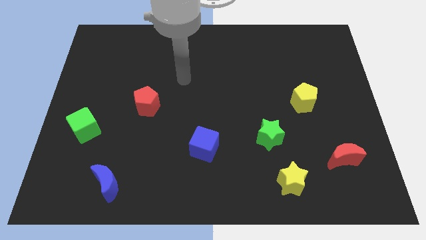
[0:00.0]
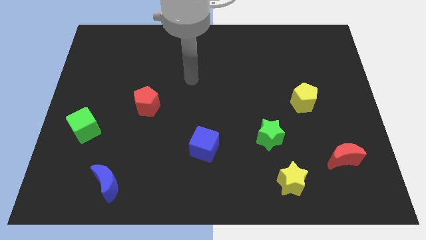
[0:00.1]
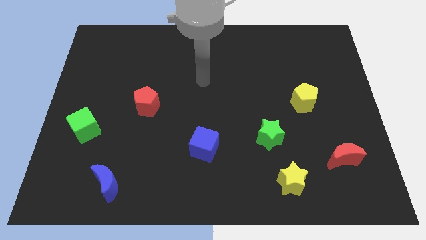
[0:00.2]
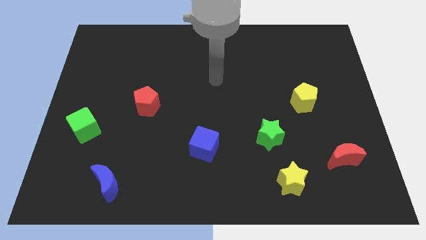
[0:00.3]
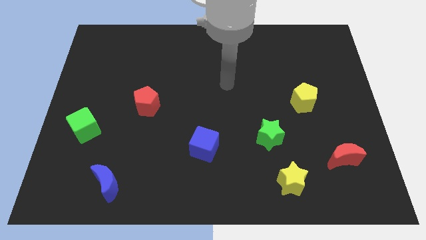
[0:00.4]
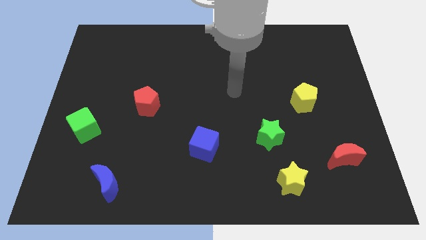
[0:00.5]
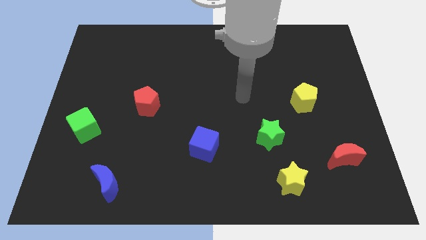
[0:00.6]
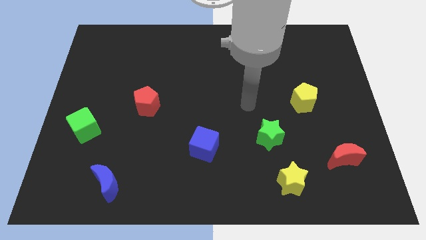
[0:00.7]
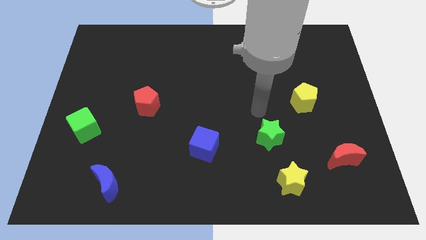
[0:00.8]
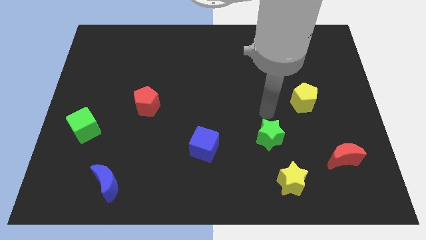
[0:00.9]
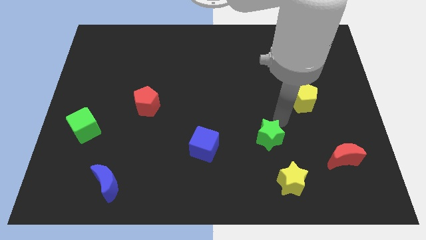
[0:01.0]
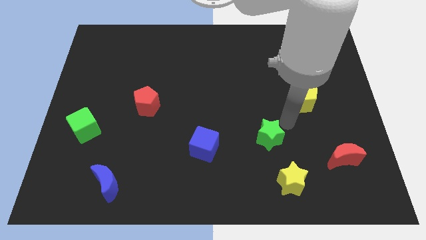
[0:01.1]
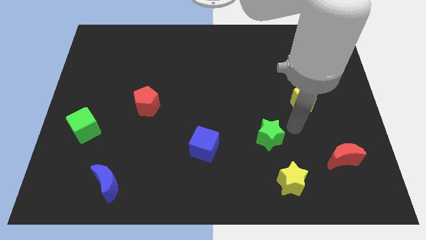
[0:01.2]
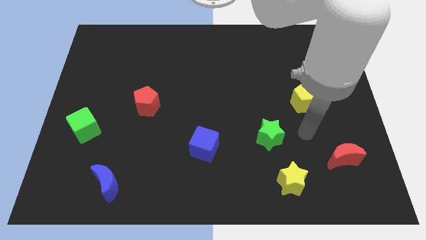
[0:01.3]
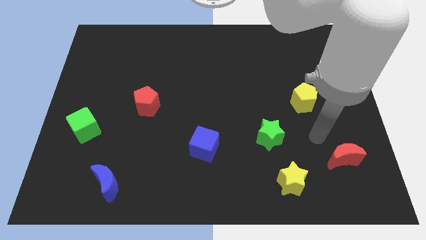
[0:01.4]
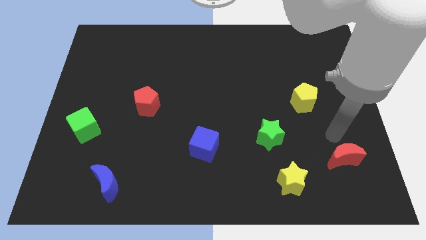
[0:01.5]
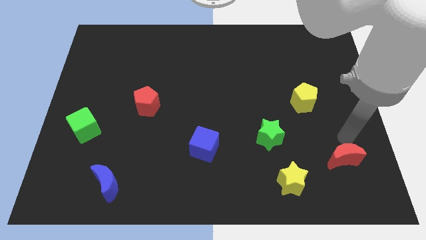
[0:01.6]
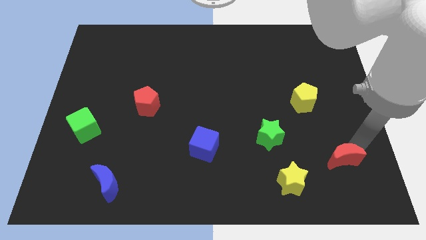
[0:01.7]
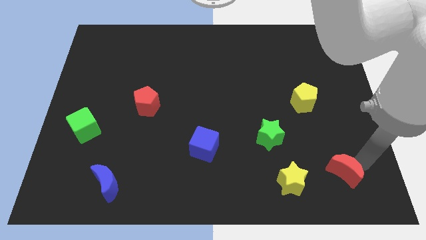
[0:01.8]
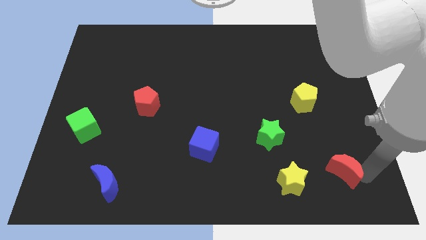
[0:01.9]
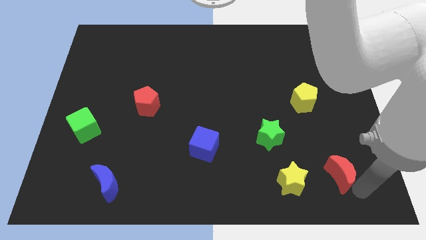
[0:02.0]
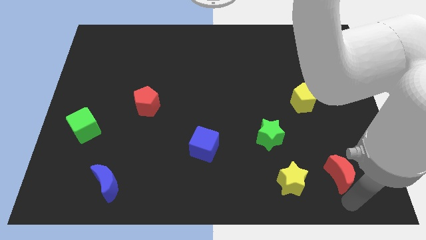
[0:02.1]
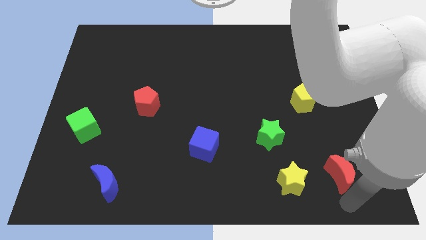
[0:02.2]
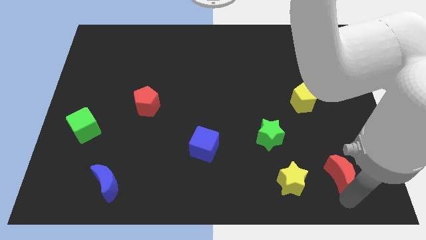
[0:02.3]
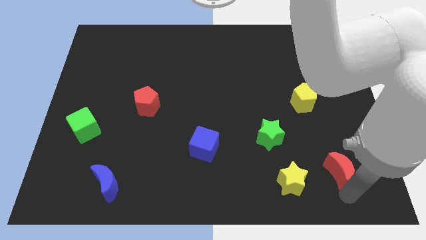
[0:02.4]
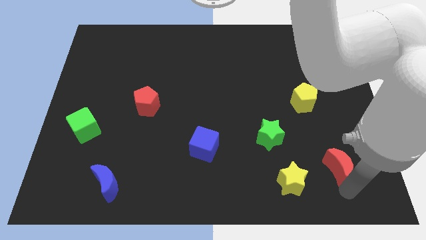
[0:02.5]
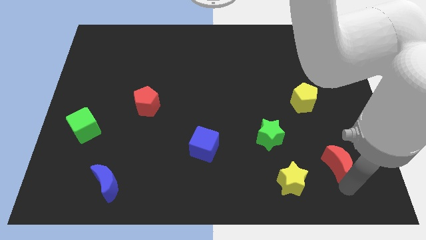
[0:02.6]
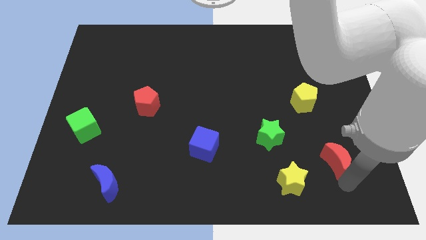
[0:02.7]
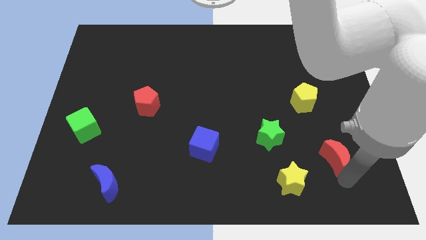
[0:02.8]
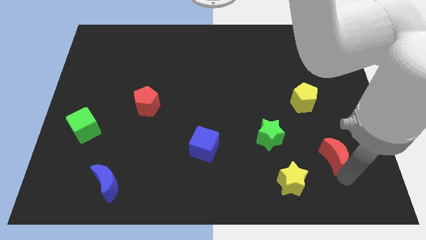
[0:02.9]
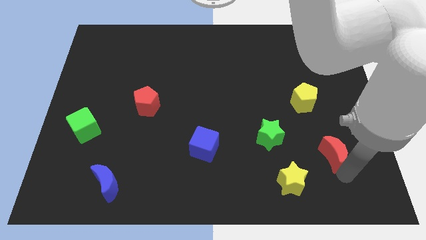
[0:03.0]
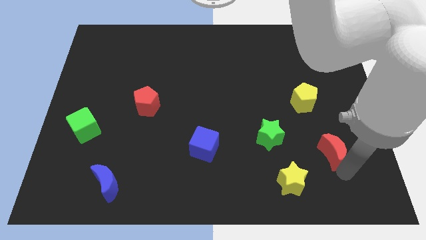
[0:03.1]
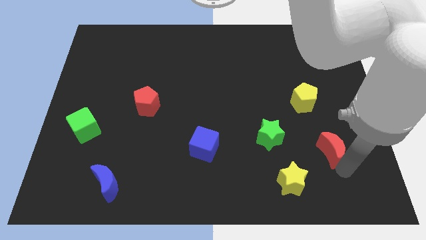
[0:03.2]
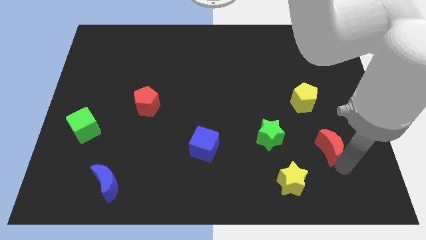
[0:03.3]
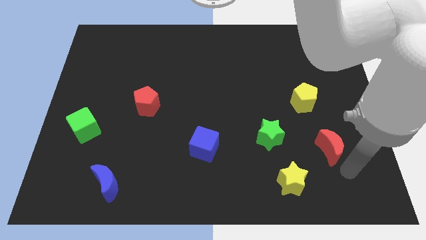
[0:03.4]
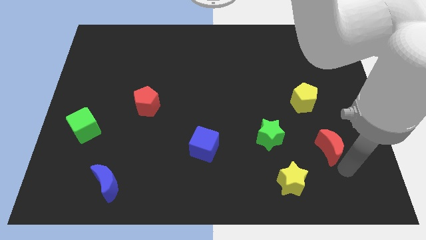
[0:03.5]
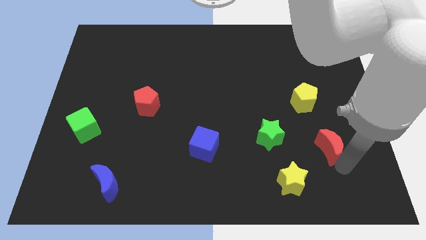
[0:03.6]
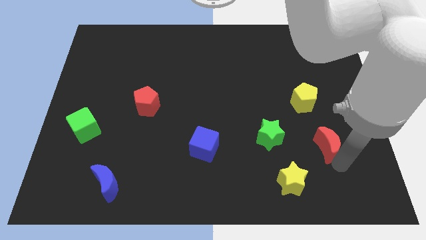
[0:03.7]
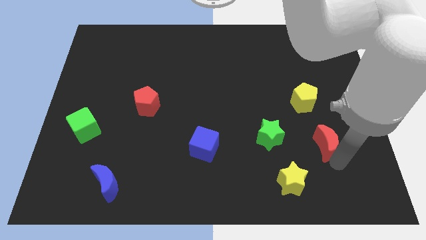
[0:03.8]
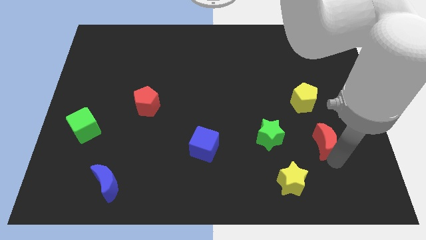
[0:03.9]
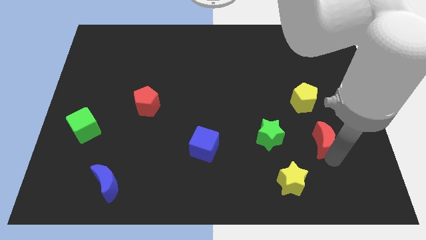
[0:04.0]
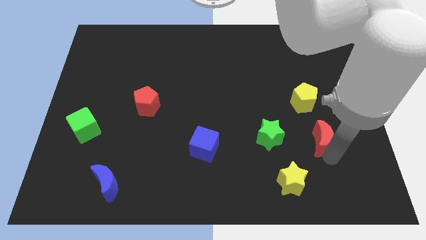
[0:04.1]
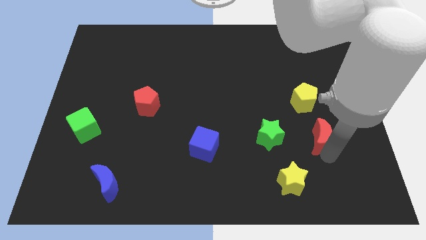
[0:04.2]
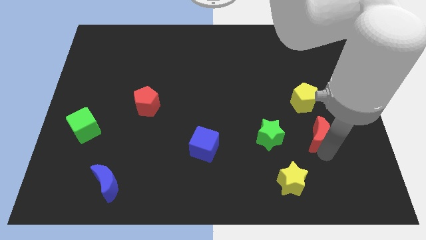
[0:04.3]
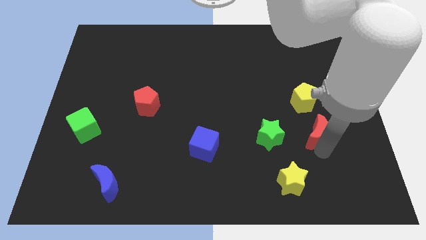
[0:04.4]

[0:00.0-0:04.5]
push the red moon a little upwards and to the left

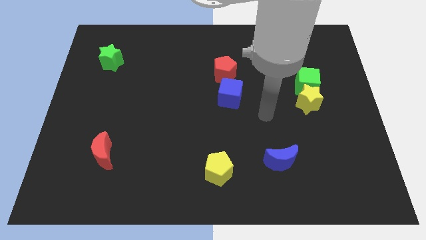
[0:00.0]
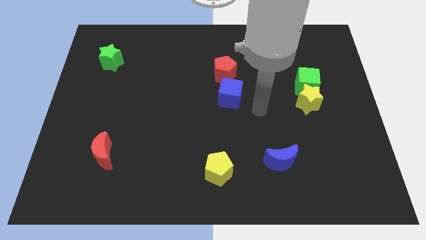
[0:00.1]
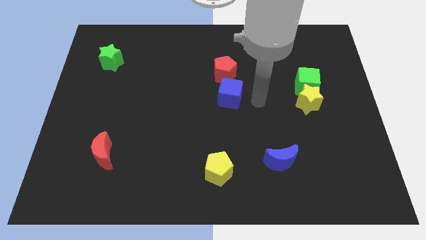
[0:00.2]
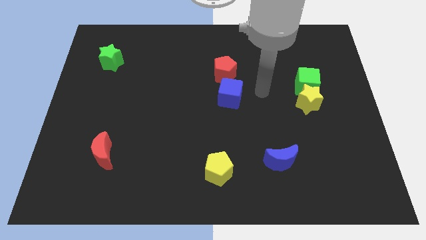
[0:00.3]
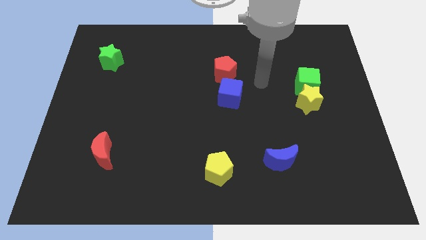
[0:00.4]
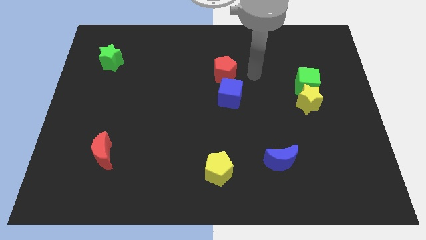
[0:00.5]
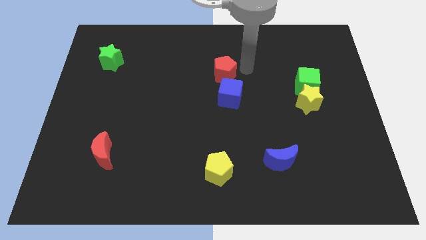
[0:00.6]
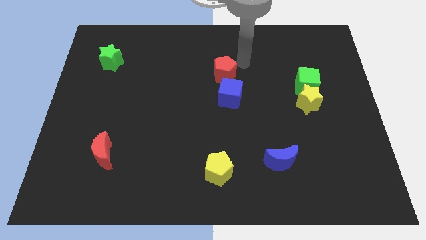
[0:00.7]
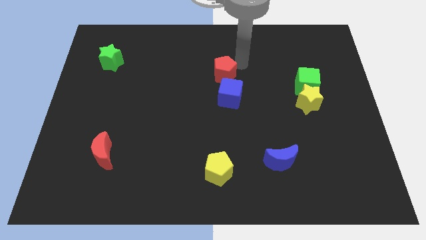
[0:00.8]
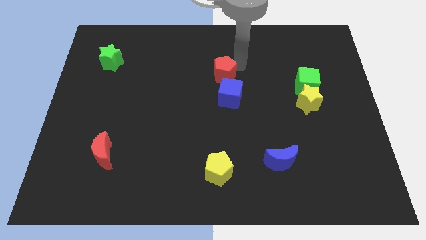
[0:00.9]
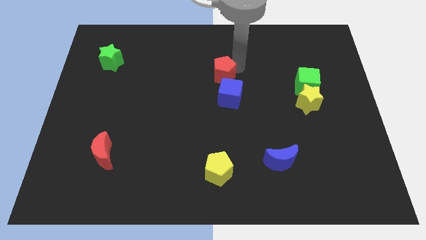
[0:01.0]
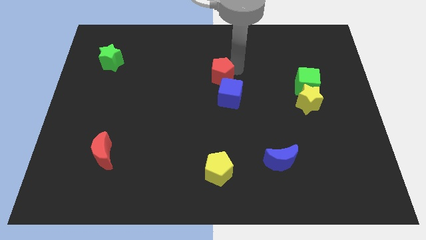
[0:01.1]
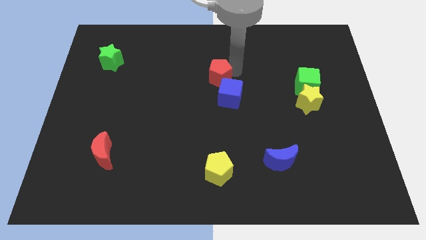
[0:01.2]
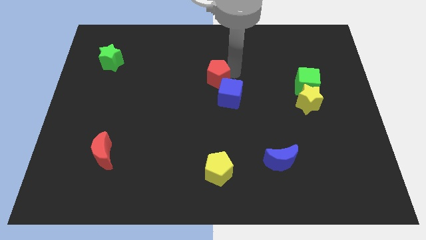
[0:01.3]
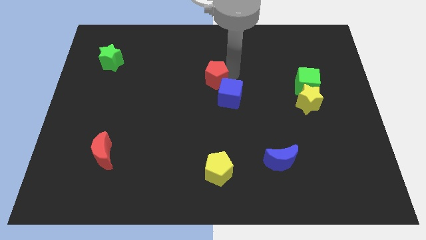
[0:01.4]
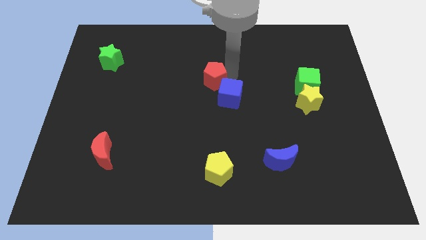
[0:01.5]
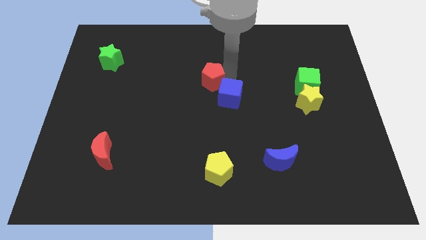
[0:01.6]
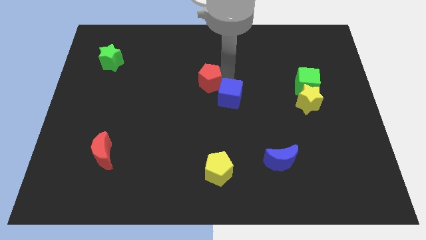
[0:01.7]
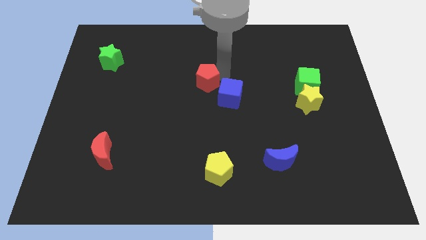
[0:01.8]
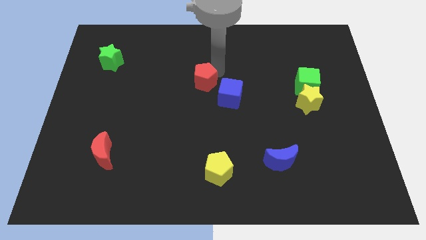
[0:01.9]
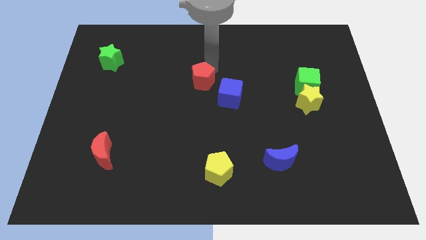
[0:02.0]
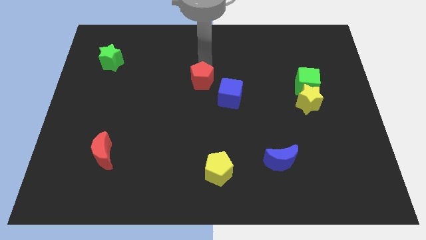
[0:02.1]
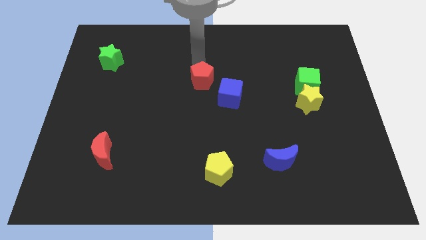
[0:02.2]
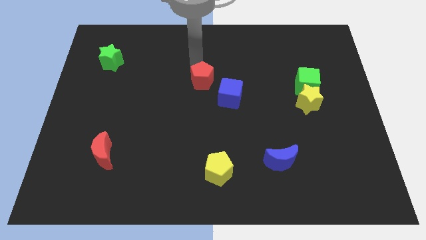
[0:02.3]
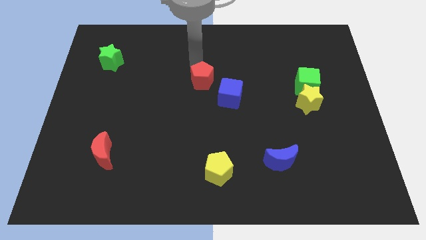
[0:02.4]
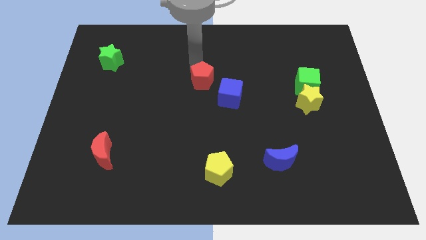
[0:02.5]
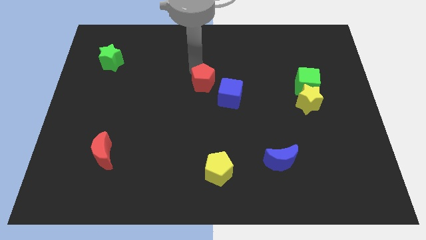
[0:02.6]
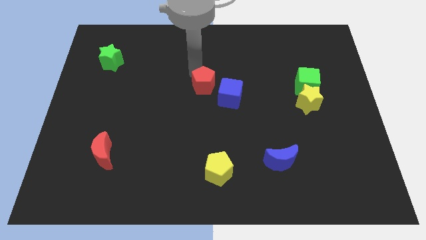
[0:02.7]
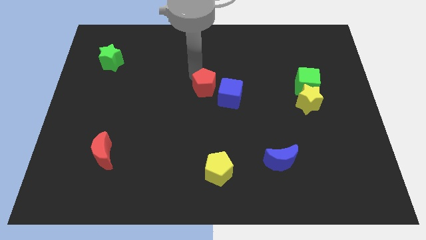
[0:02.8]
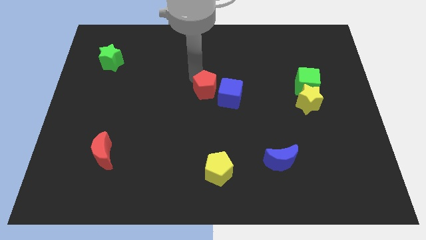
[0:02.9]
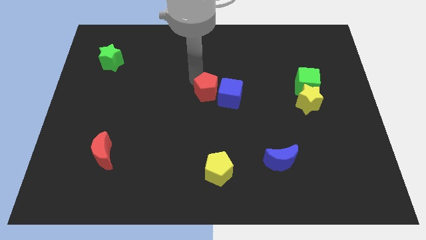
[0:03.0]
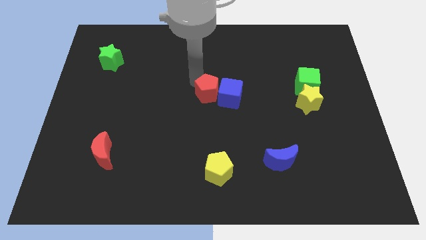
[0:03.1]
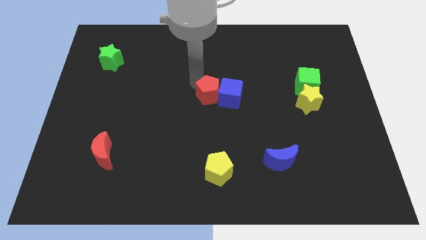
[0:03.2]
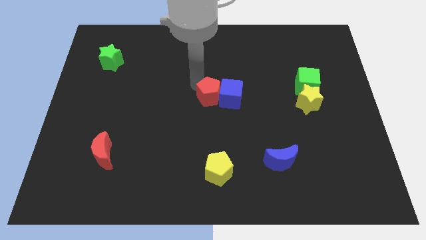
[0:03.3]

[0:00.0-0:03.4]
move the red pentagon slightly down
